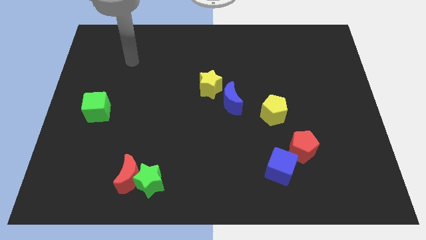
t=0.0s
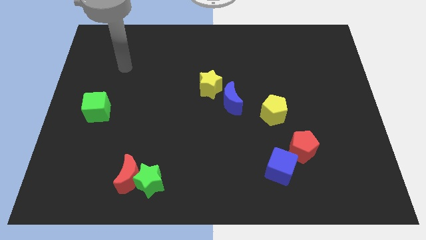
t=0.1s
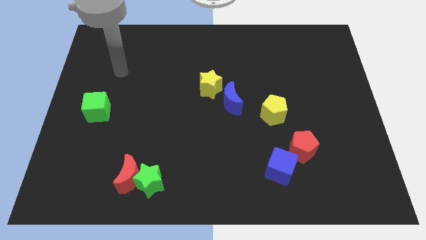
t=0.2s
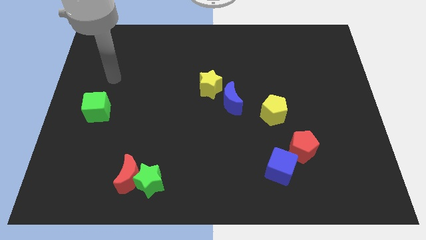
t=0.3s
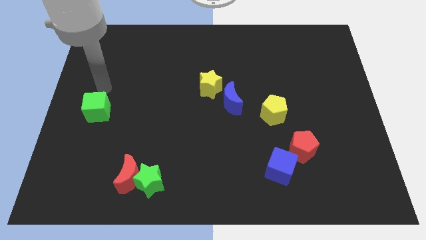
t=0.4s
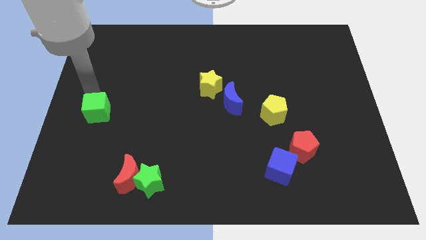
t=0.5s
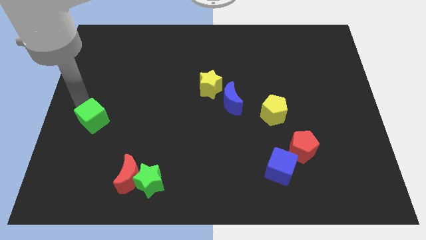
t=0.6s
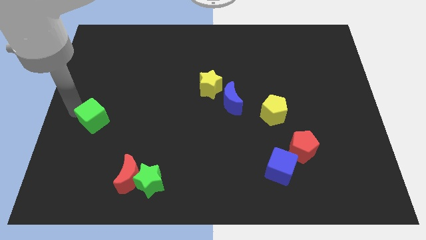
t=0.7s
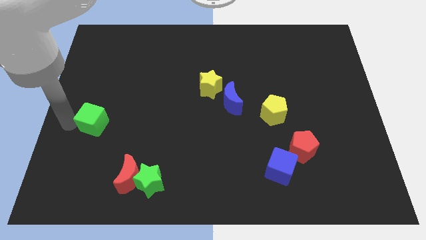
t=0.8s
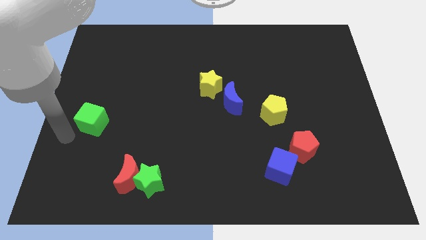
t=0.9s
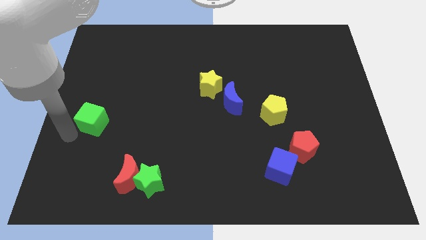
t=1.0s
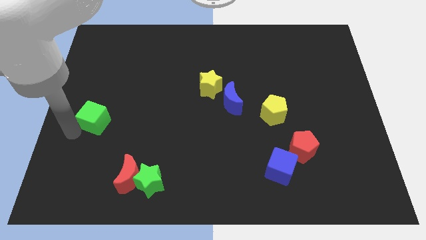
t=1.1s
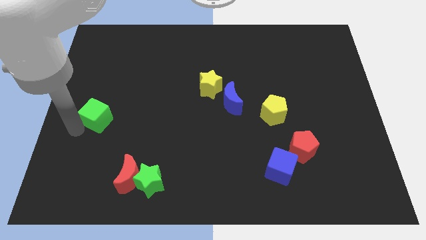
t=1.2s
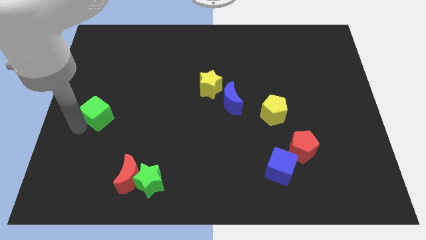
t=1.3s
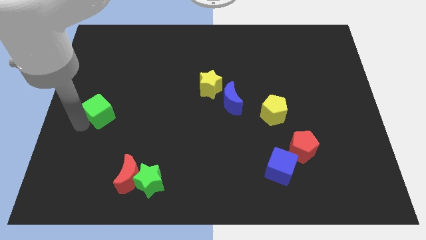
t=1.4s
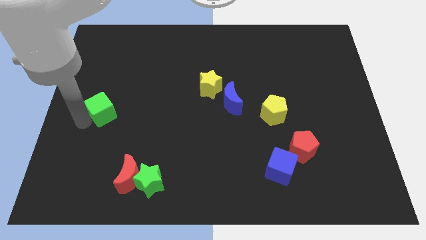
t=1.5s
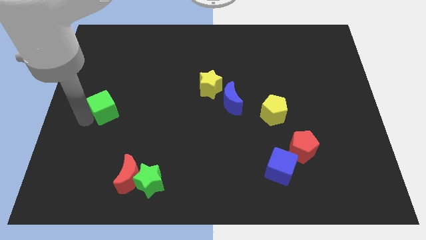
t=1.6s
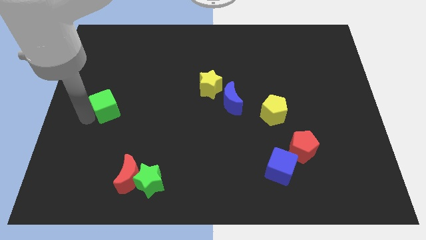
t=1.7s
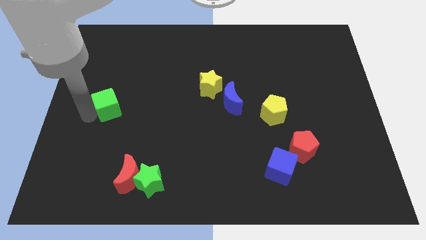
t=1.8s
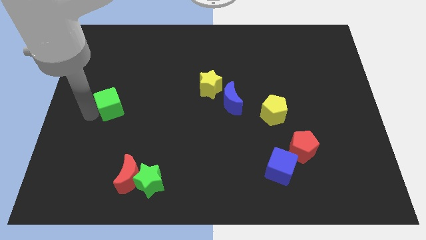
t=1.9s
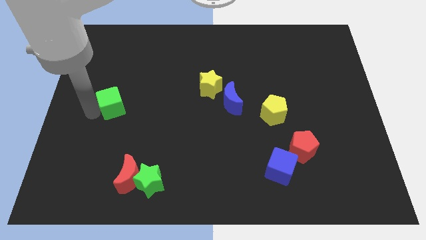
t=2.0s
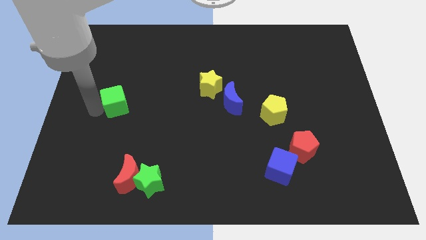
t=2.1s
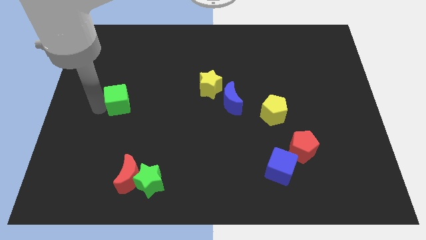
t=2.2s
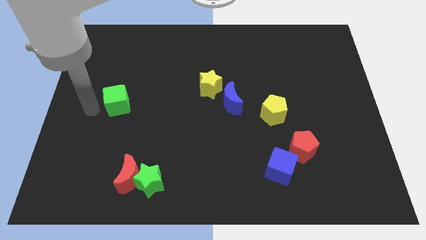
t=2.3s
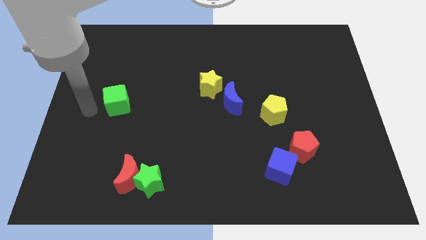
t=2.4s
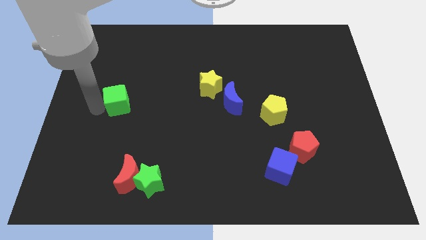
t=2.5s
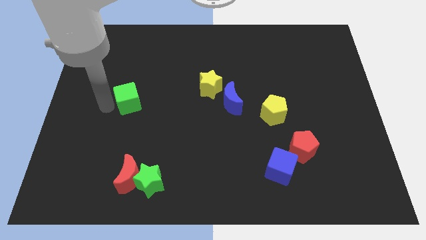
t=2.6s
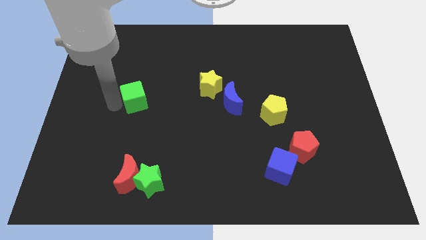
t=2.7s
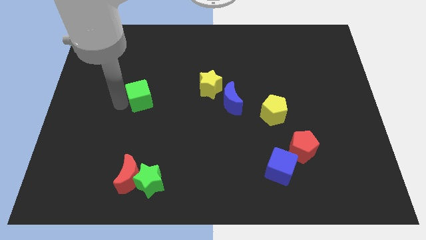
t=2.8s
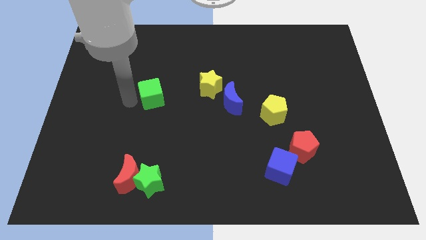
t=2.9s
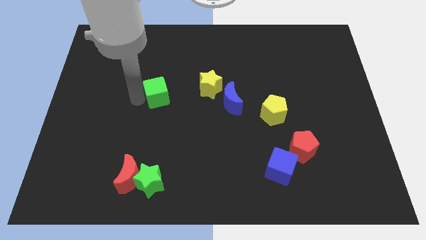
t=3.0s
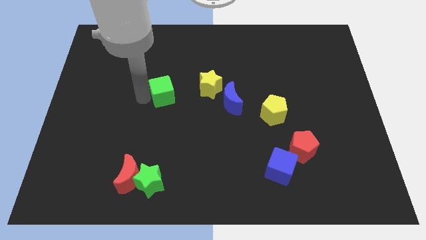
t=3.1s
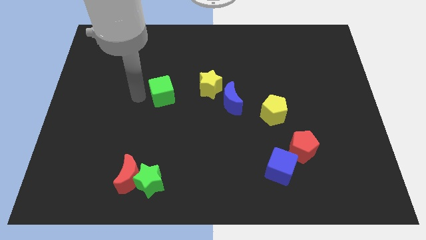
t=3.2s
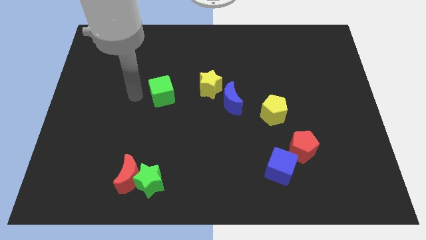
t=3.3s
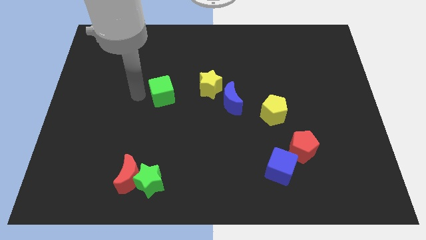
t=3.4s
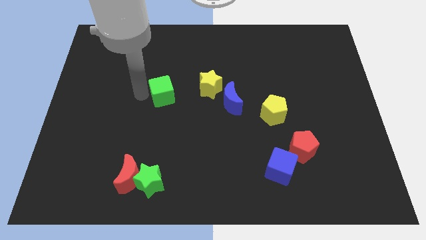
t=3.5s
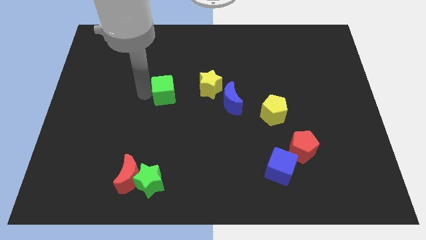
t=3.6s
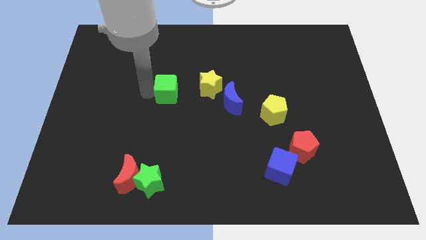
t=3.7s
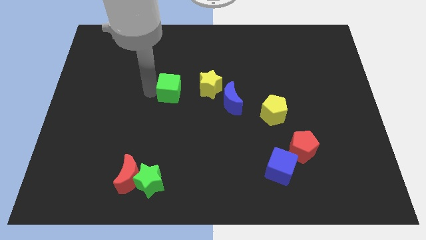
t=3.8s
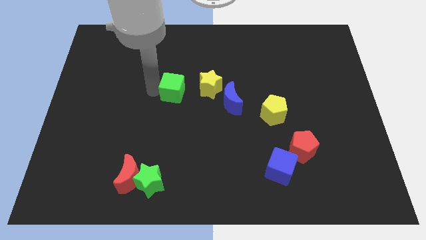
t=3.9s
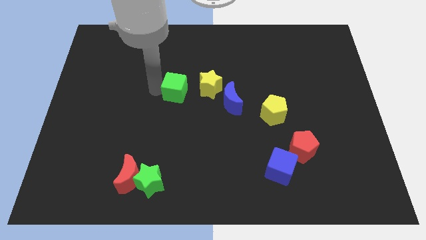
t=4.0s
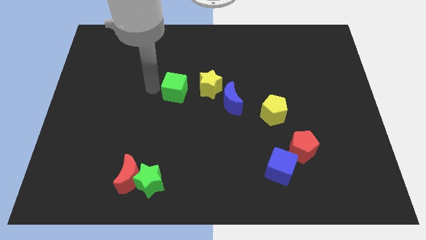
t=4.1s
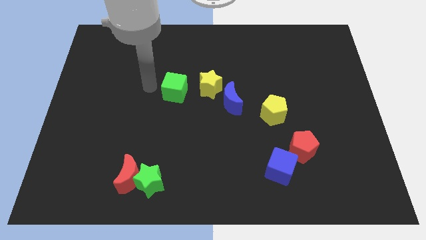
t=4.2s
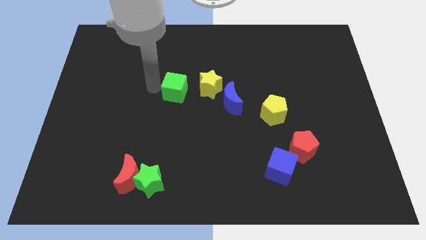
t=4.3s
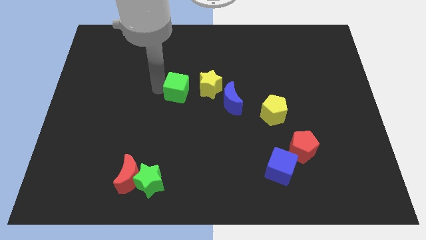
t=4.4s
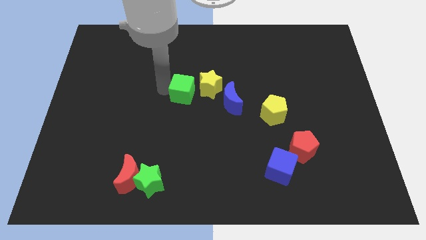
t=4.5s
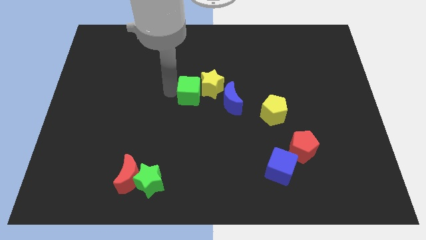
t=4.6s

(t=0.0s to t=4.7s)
put the green cube next to the yellow star

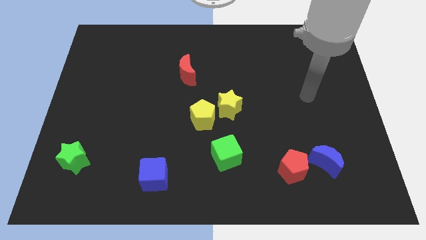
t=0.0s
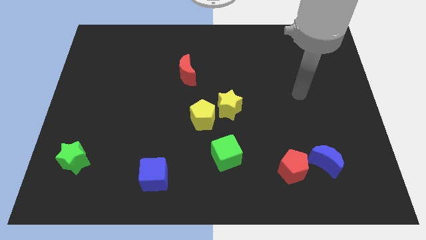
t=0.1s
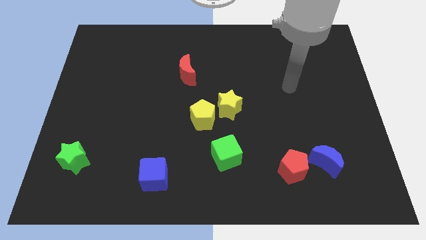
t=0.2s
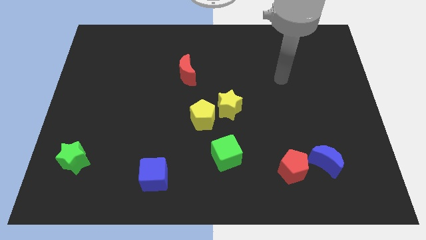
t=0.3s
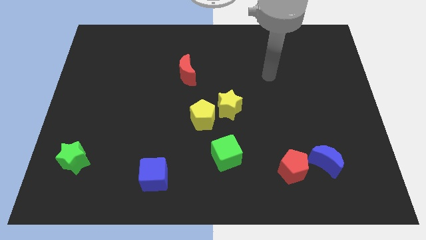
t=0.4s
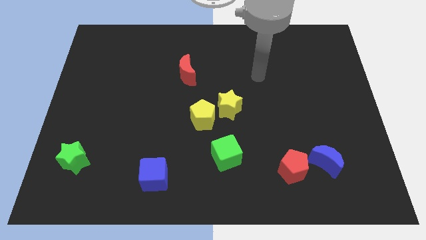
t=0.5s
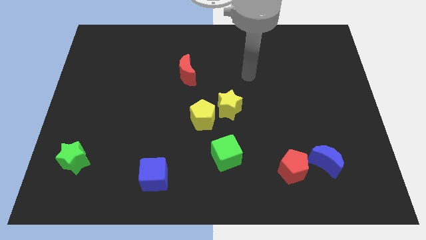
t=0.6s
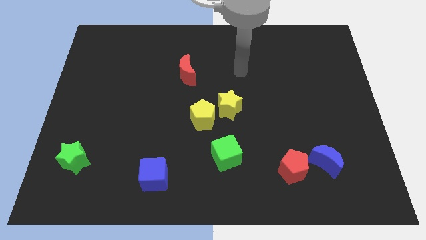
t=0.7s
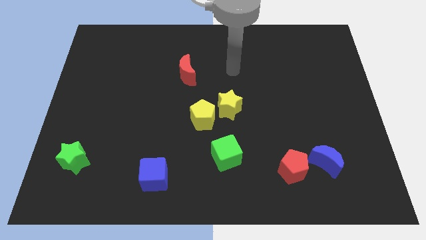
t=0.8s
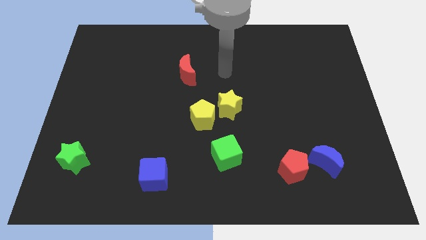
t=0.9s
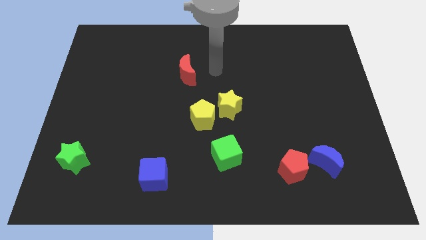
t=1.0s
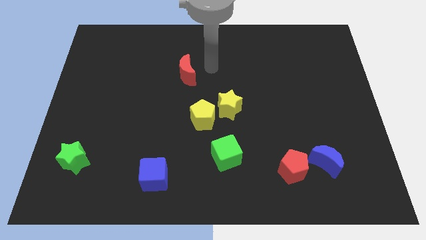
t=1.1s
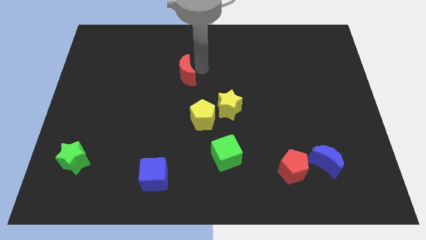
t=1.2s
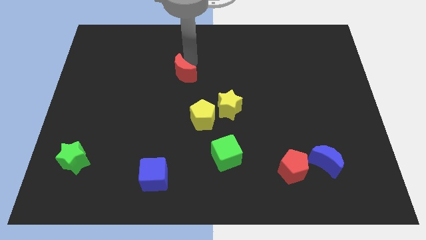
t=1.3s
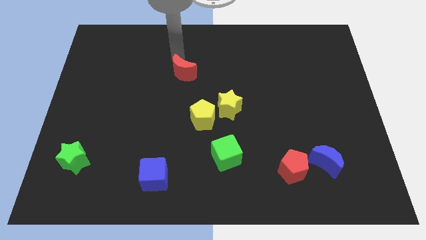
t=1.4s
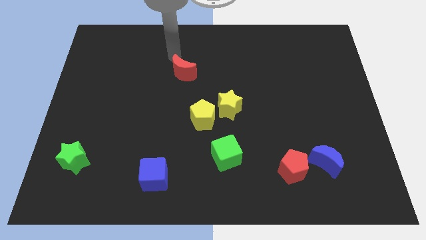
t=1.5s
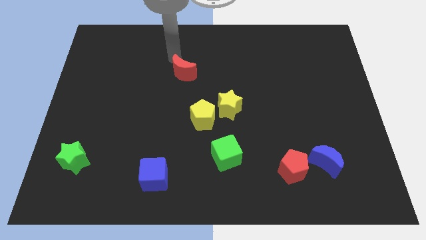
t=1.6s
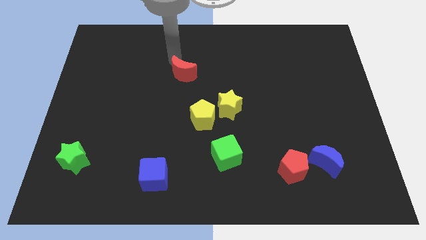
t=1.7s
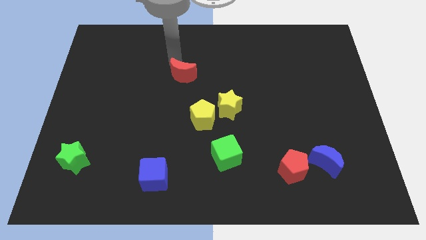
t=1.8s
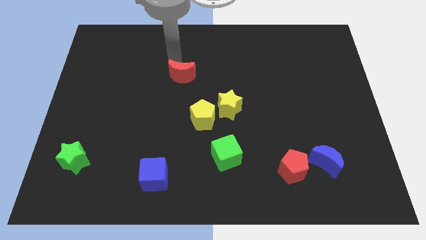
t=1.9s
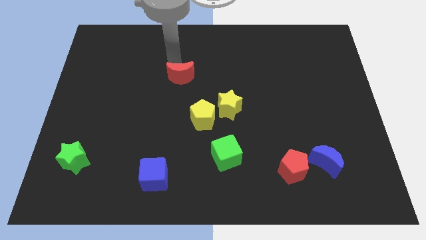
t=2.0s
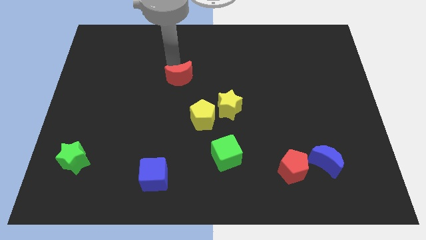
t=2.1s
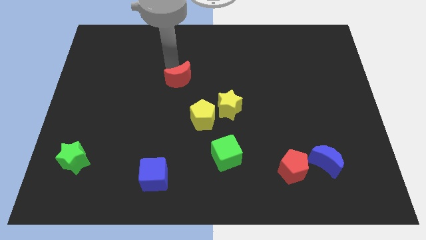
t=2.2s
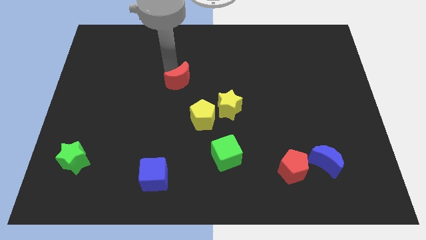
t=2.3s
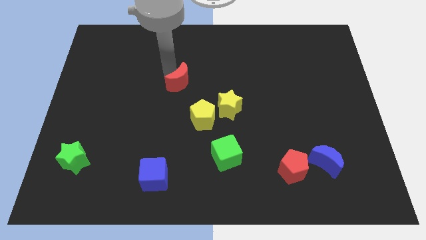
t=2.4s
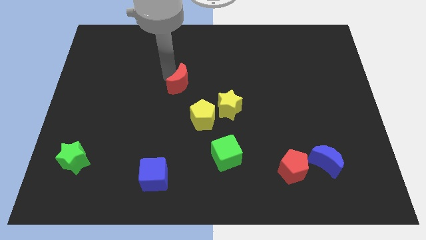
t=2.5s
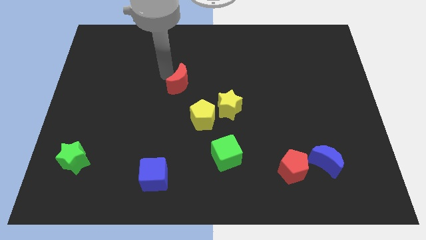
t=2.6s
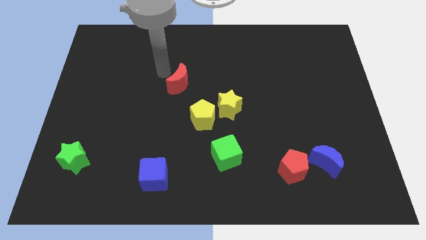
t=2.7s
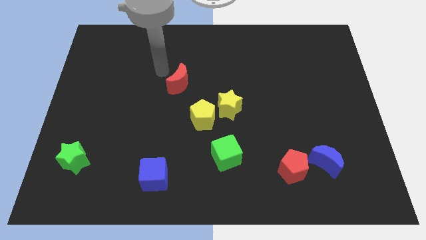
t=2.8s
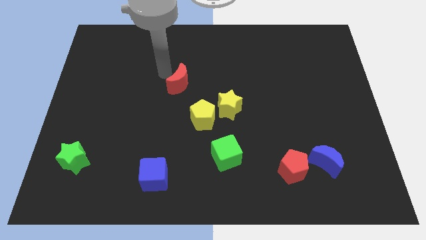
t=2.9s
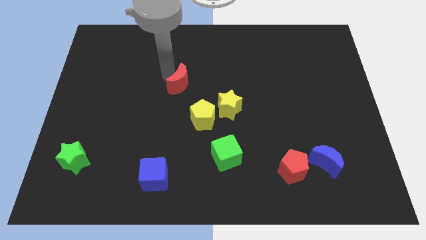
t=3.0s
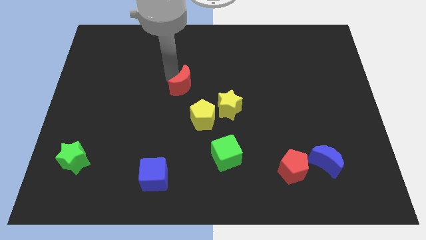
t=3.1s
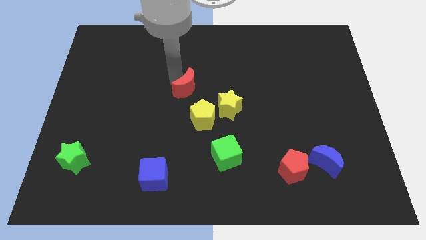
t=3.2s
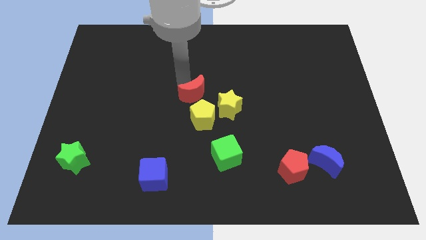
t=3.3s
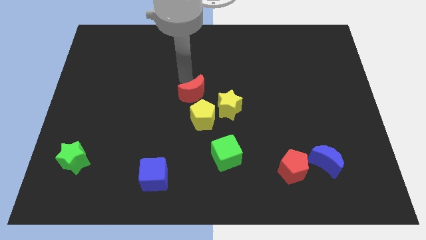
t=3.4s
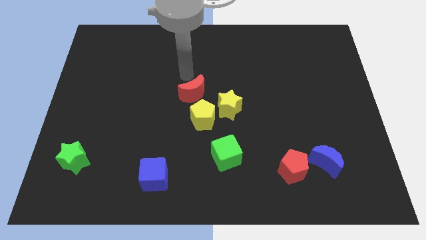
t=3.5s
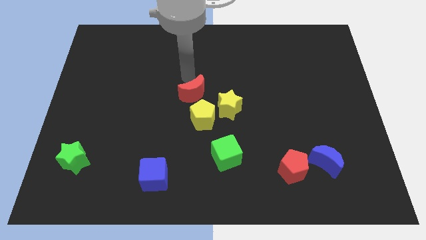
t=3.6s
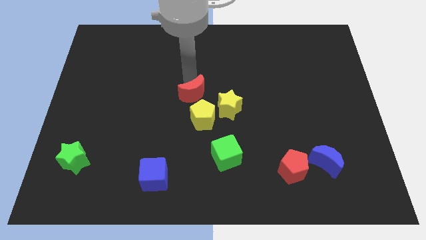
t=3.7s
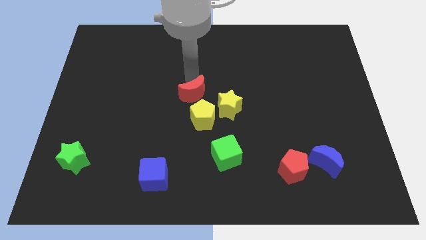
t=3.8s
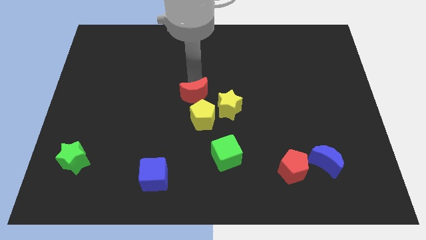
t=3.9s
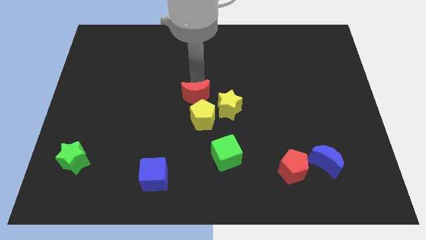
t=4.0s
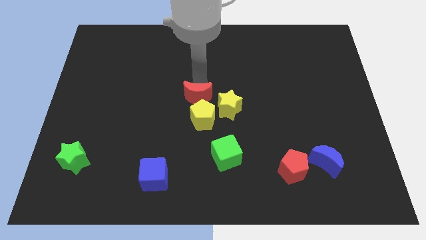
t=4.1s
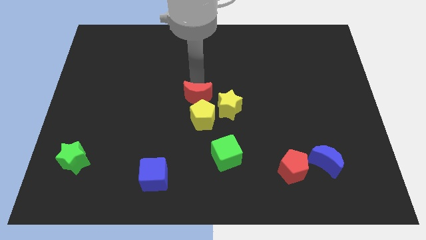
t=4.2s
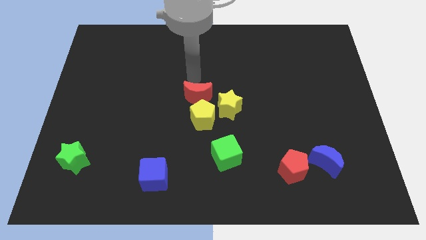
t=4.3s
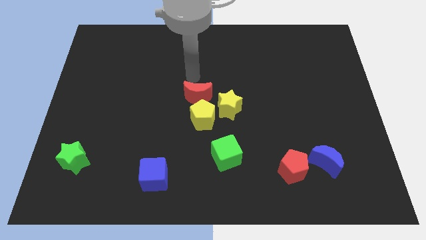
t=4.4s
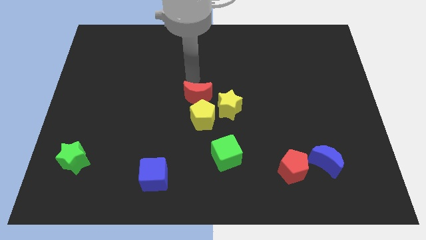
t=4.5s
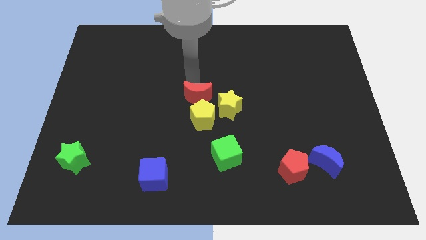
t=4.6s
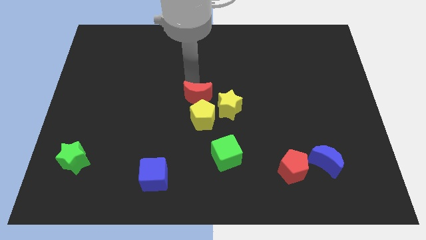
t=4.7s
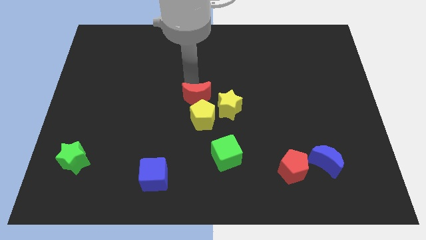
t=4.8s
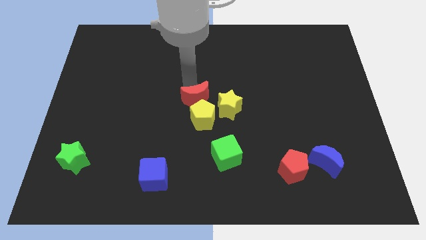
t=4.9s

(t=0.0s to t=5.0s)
put the red moon to the yellow pentagon
